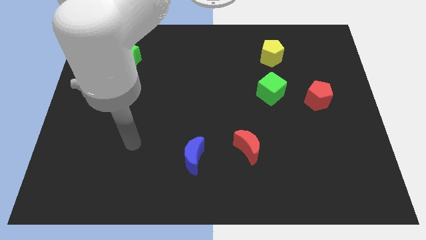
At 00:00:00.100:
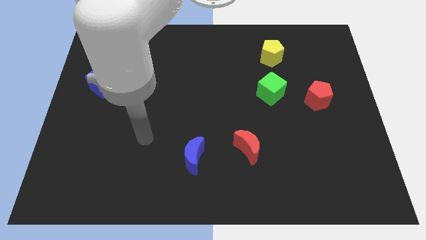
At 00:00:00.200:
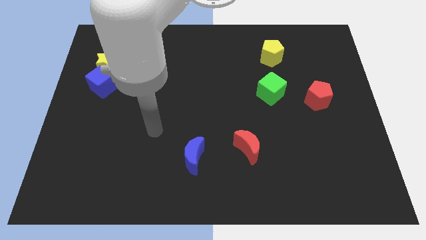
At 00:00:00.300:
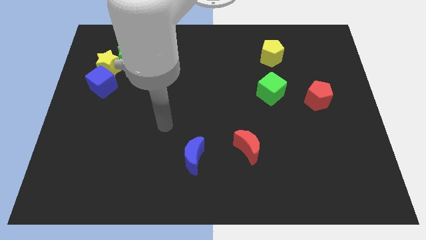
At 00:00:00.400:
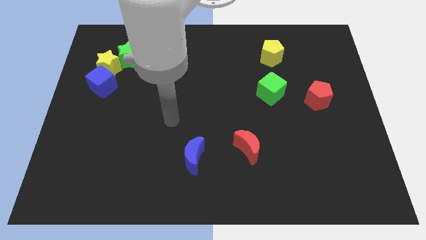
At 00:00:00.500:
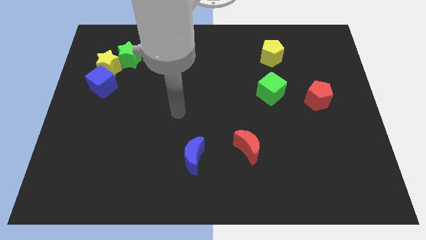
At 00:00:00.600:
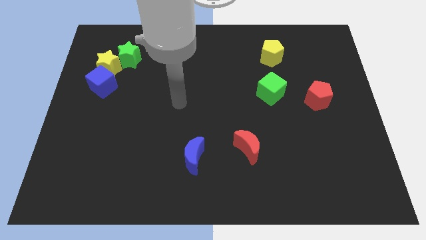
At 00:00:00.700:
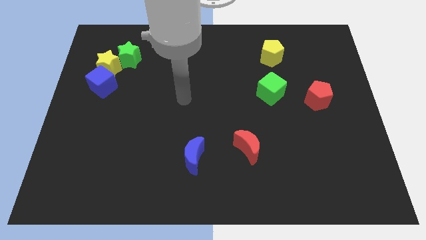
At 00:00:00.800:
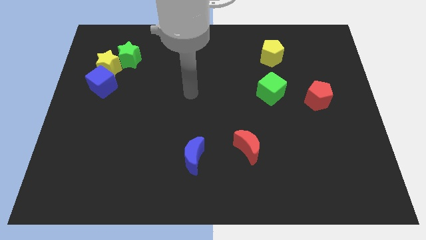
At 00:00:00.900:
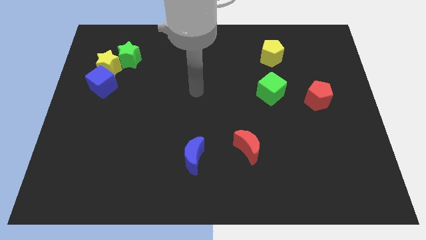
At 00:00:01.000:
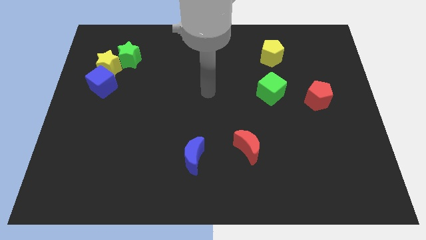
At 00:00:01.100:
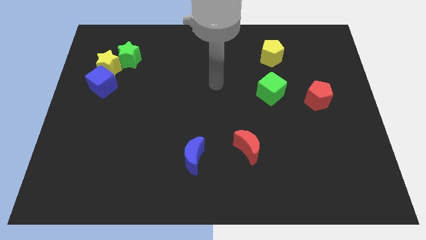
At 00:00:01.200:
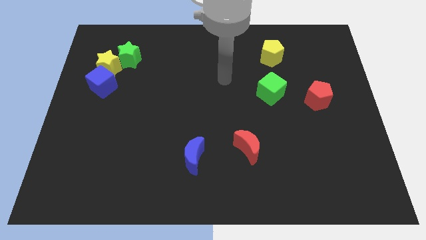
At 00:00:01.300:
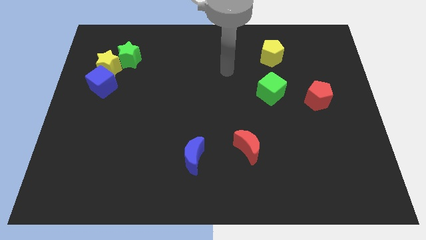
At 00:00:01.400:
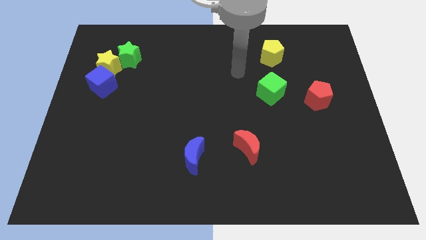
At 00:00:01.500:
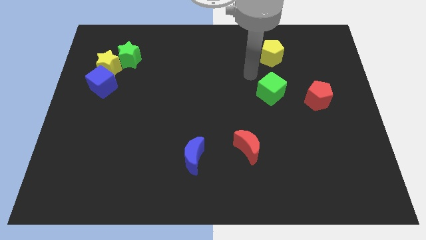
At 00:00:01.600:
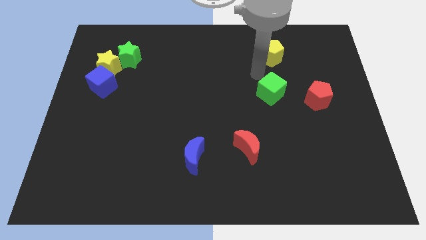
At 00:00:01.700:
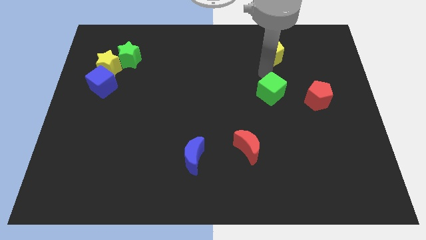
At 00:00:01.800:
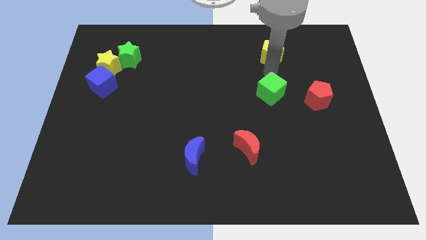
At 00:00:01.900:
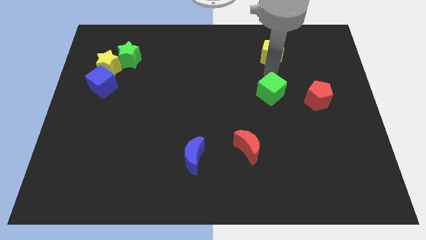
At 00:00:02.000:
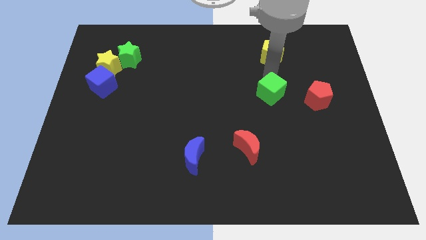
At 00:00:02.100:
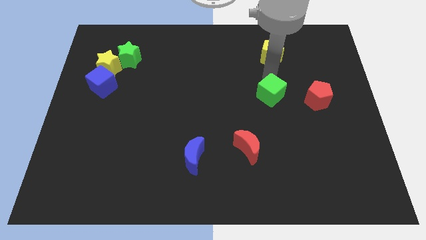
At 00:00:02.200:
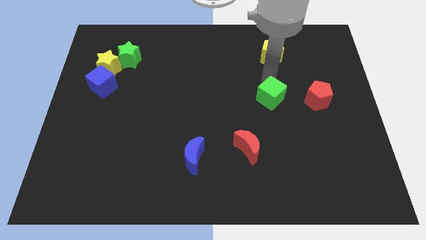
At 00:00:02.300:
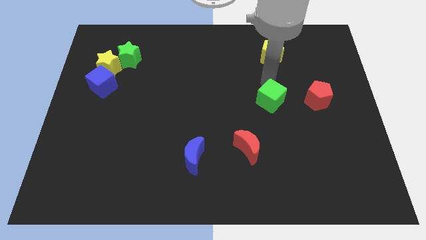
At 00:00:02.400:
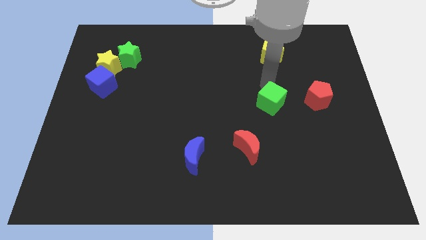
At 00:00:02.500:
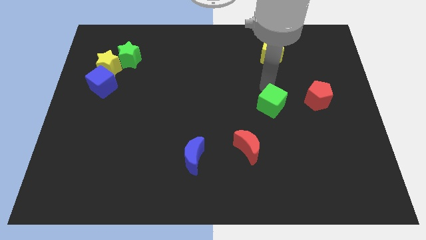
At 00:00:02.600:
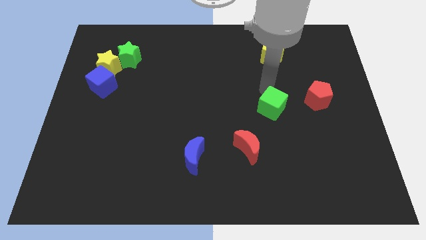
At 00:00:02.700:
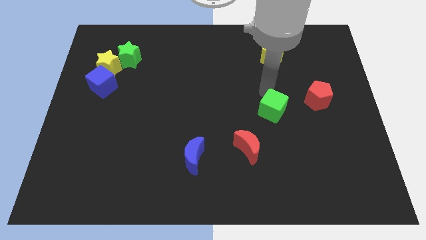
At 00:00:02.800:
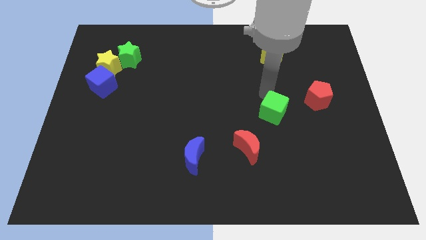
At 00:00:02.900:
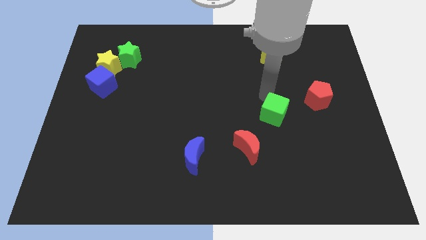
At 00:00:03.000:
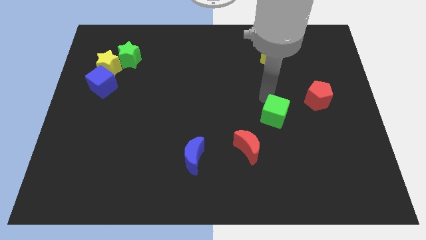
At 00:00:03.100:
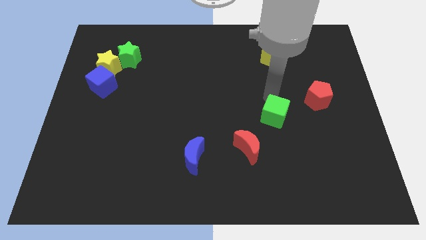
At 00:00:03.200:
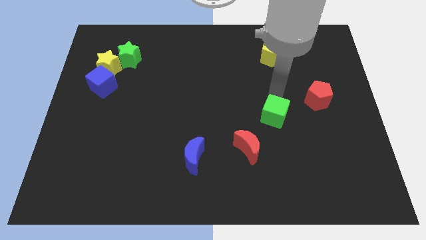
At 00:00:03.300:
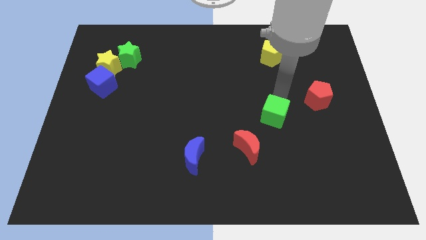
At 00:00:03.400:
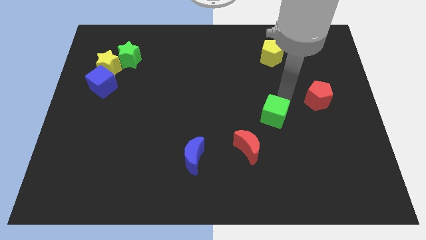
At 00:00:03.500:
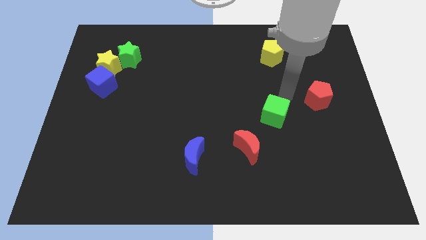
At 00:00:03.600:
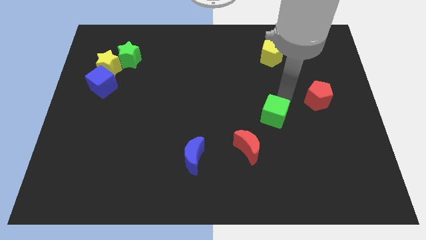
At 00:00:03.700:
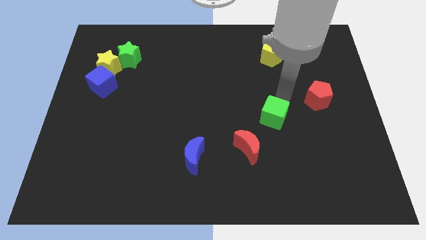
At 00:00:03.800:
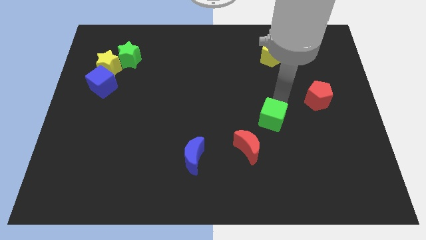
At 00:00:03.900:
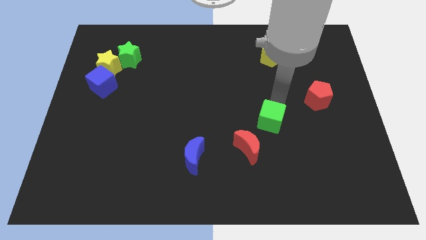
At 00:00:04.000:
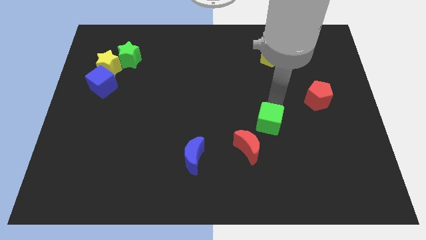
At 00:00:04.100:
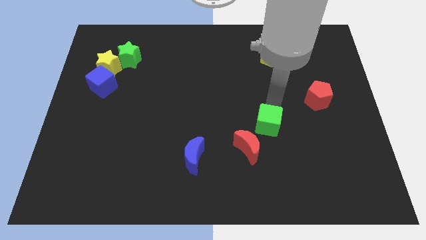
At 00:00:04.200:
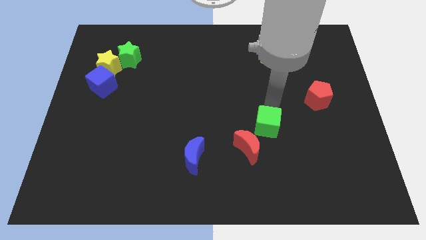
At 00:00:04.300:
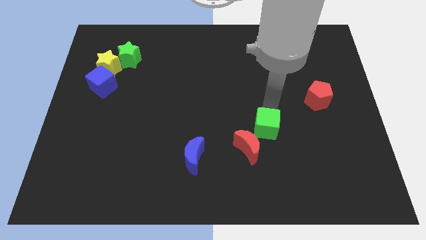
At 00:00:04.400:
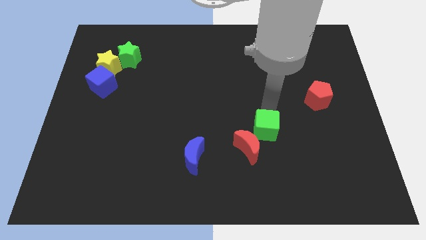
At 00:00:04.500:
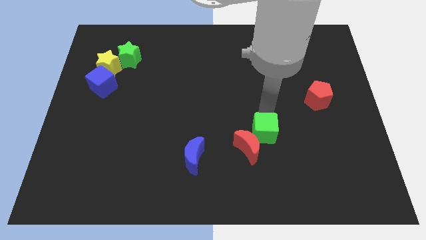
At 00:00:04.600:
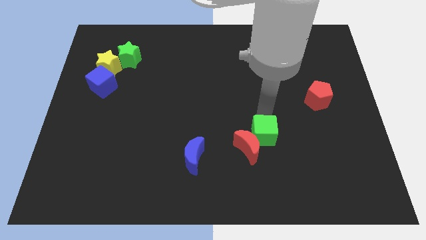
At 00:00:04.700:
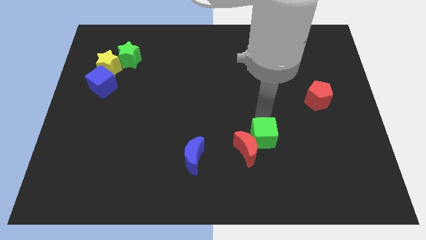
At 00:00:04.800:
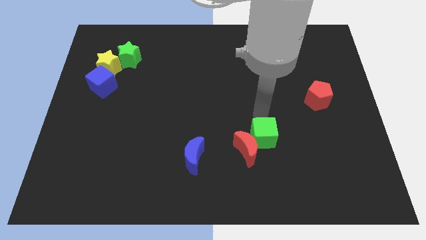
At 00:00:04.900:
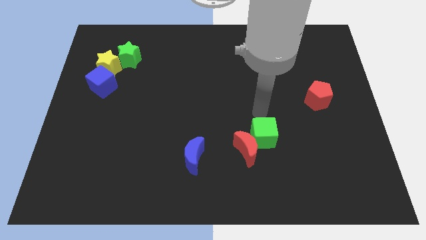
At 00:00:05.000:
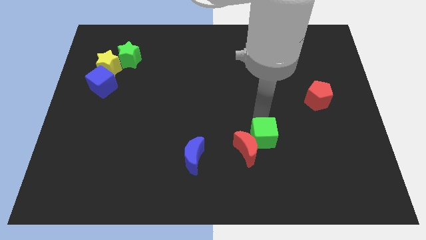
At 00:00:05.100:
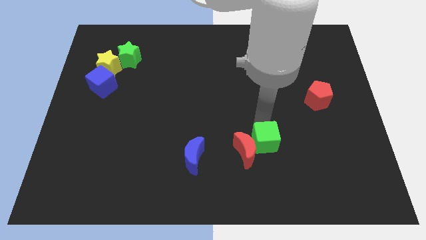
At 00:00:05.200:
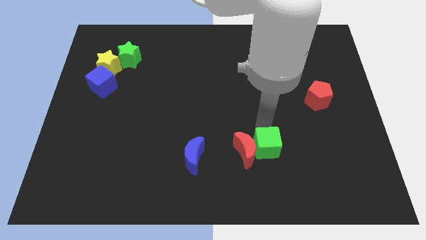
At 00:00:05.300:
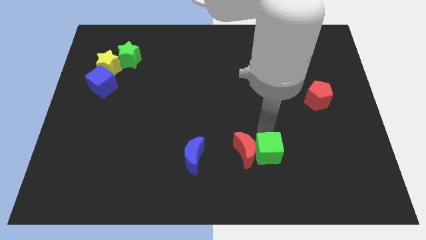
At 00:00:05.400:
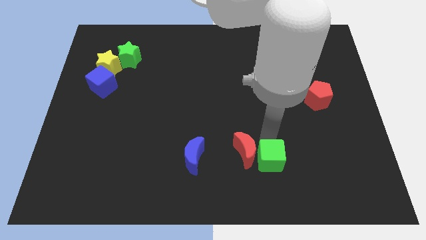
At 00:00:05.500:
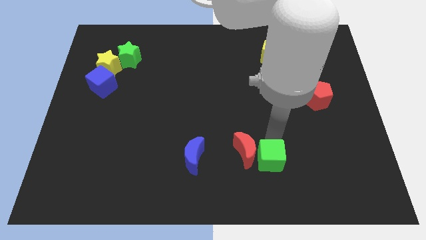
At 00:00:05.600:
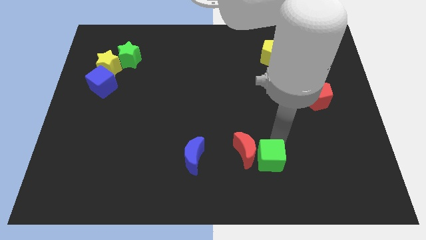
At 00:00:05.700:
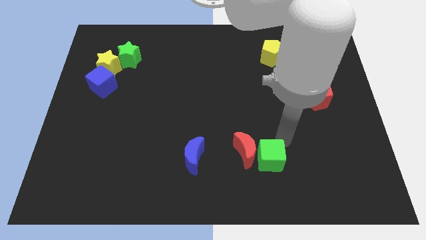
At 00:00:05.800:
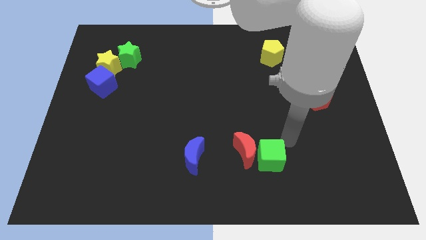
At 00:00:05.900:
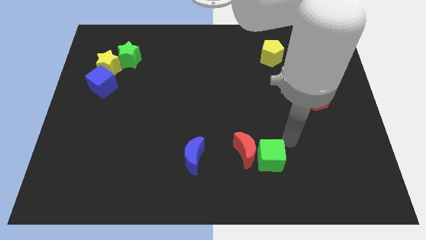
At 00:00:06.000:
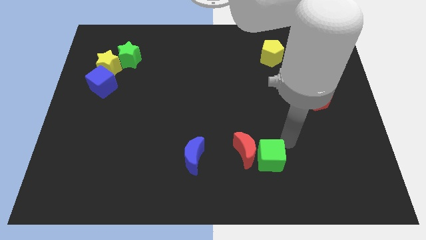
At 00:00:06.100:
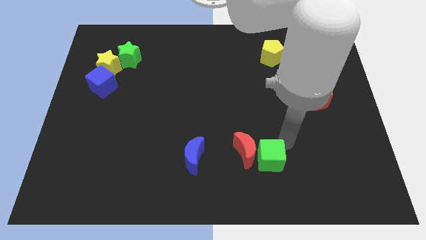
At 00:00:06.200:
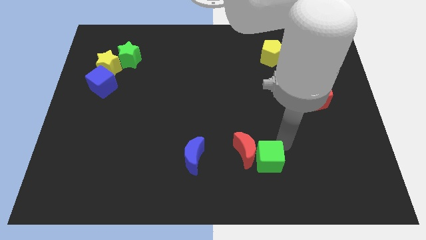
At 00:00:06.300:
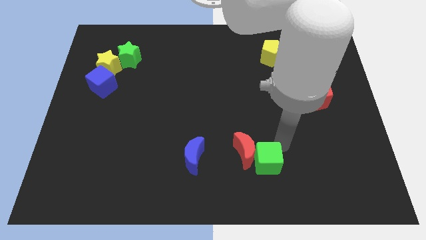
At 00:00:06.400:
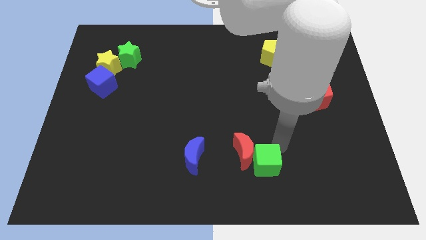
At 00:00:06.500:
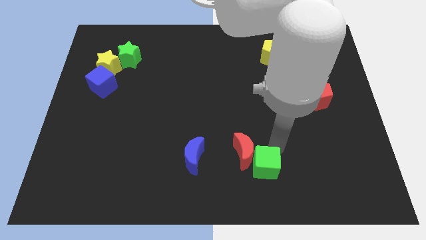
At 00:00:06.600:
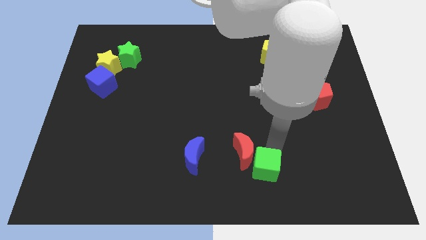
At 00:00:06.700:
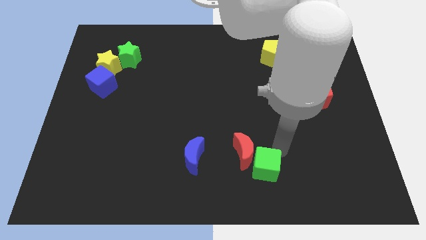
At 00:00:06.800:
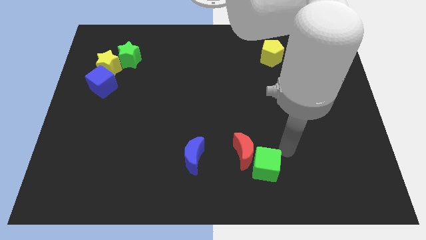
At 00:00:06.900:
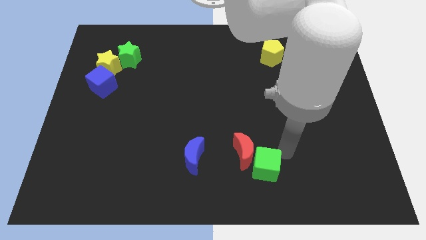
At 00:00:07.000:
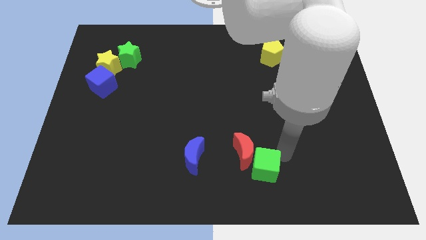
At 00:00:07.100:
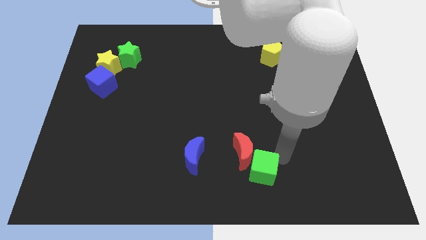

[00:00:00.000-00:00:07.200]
move the green cube to the bottom
